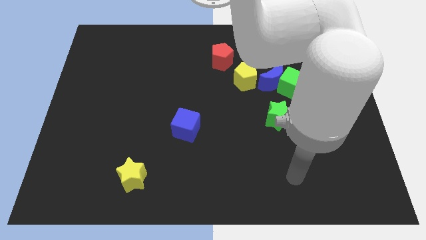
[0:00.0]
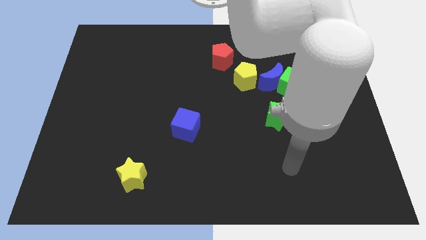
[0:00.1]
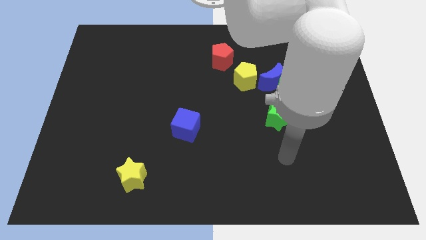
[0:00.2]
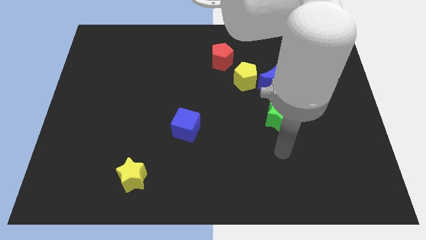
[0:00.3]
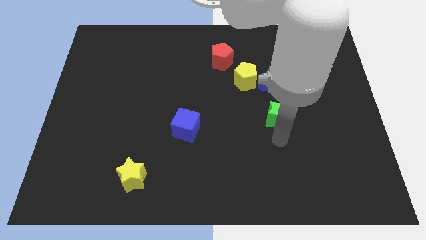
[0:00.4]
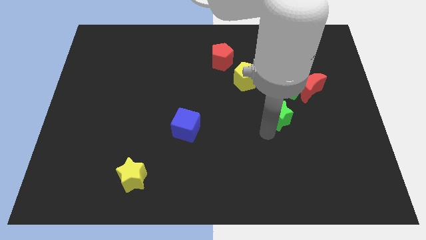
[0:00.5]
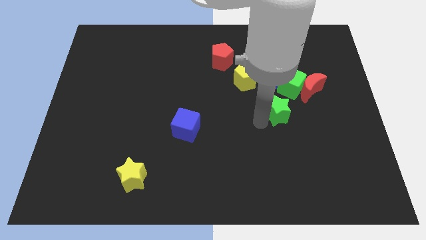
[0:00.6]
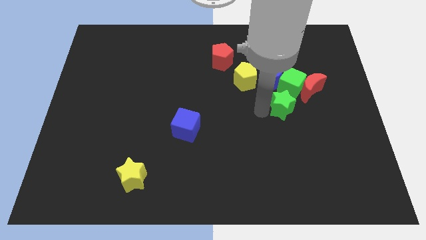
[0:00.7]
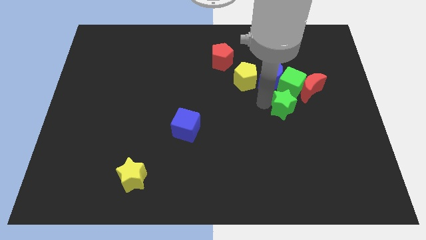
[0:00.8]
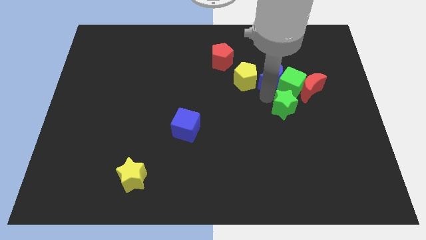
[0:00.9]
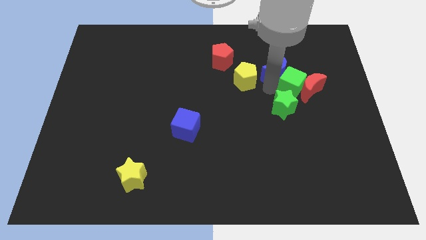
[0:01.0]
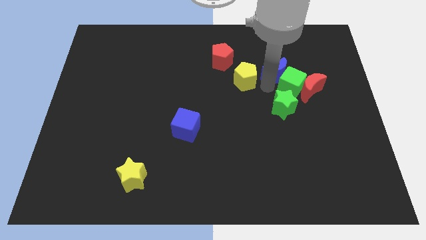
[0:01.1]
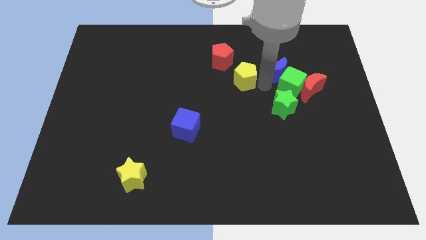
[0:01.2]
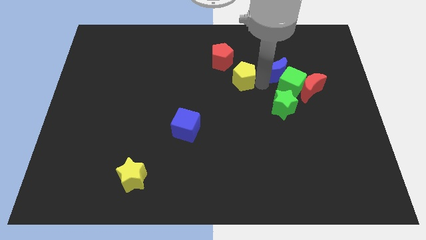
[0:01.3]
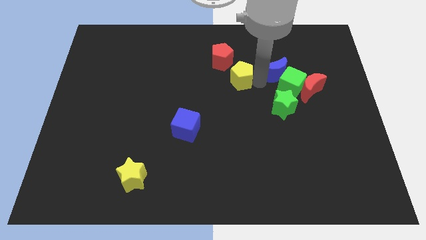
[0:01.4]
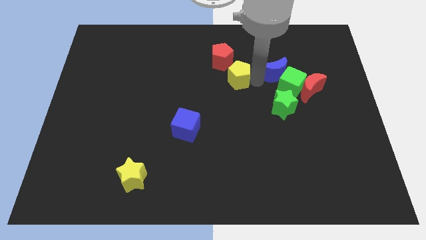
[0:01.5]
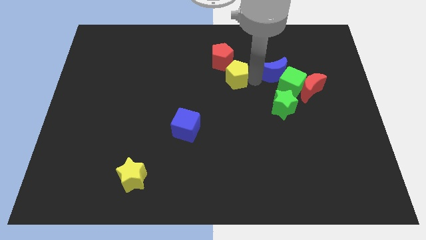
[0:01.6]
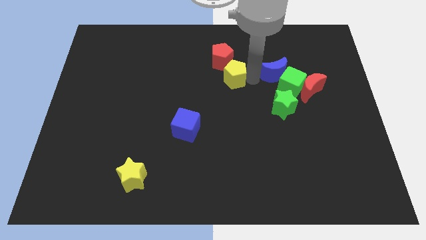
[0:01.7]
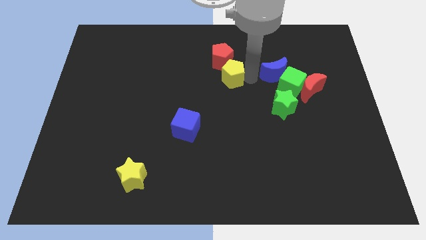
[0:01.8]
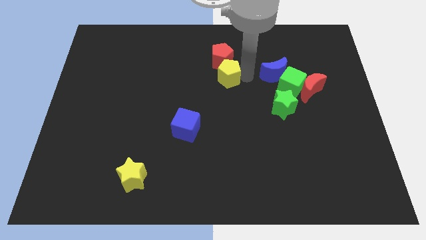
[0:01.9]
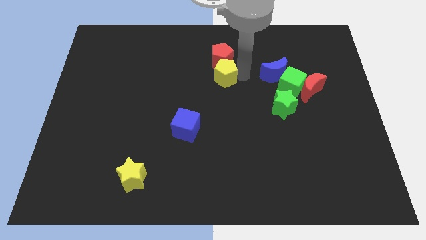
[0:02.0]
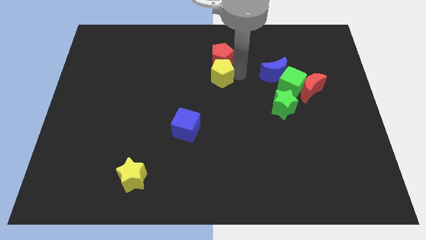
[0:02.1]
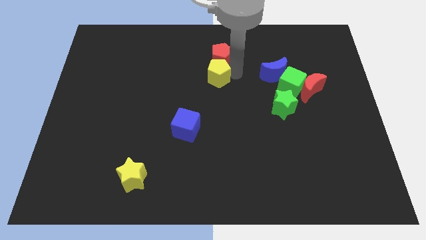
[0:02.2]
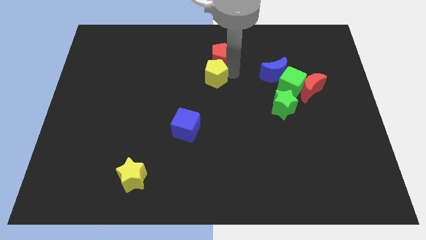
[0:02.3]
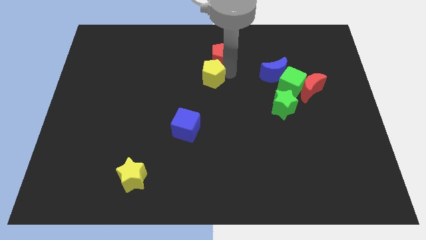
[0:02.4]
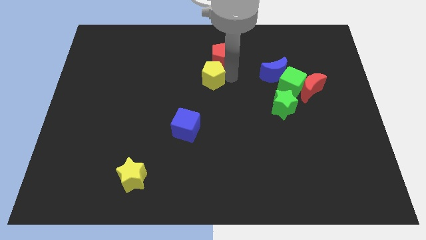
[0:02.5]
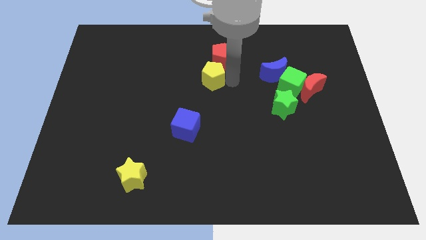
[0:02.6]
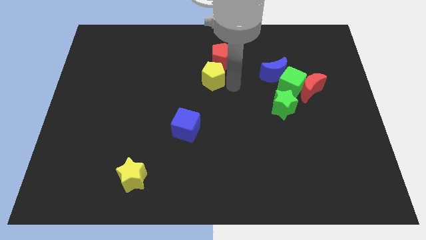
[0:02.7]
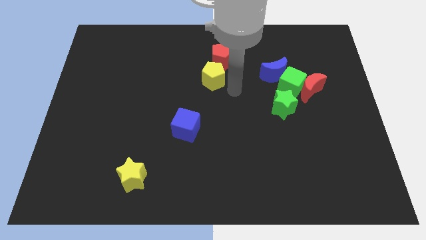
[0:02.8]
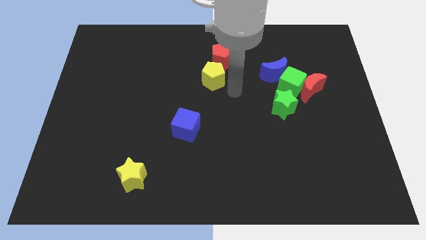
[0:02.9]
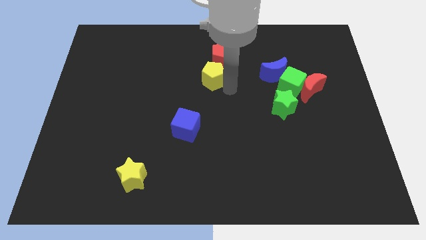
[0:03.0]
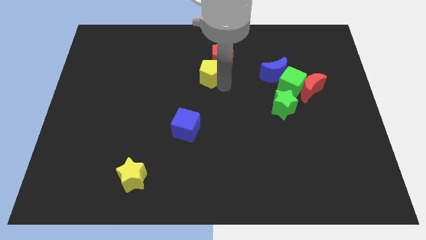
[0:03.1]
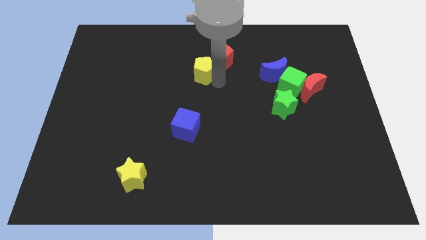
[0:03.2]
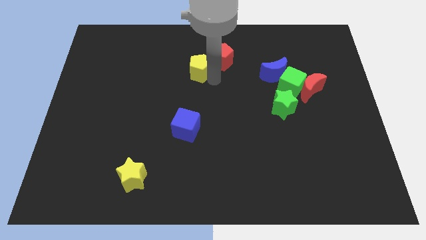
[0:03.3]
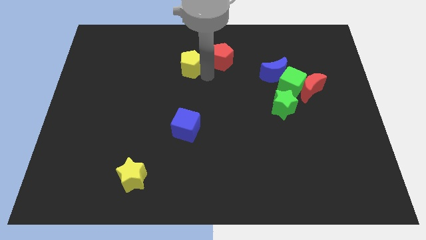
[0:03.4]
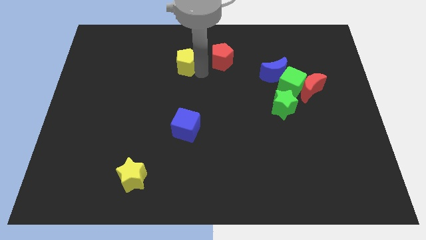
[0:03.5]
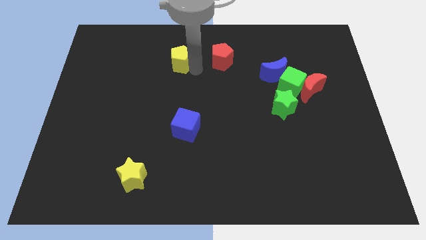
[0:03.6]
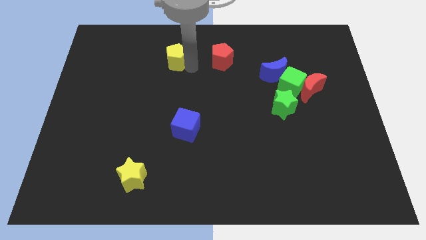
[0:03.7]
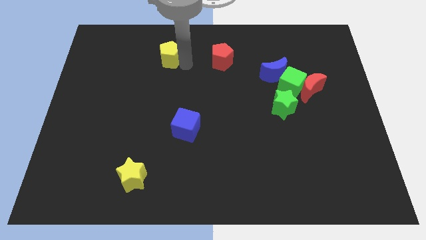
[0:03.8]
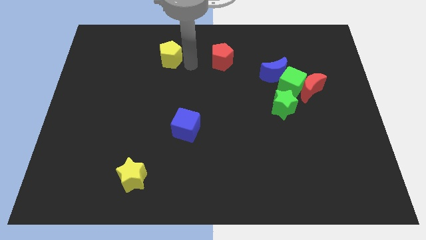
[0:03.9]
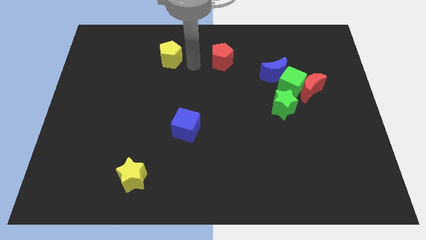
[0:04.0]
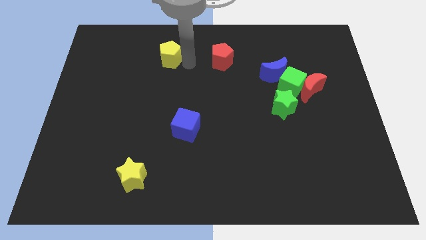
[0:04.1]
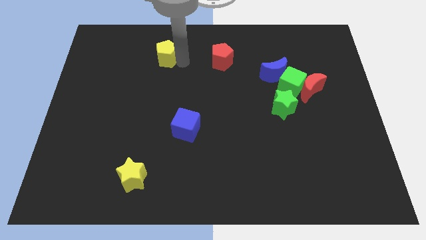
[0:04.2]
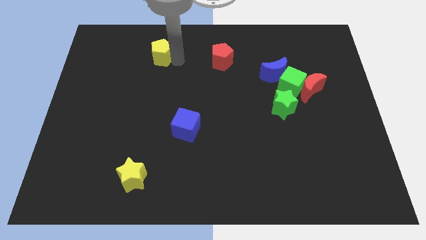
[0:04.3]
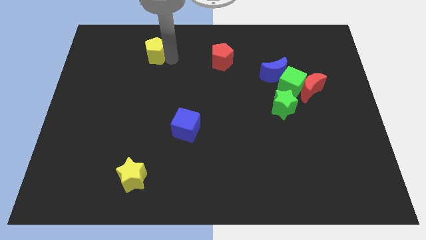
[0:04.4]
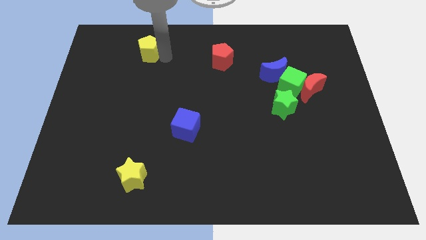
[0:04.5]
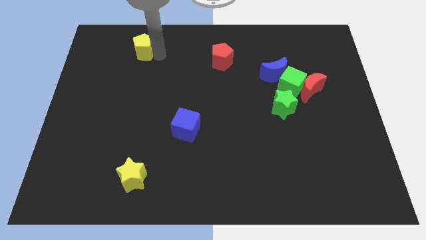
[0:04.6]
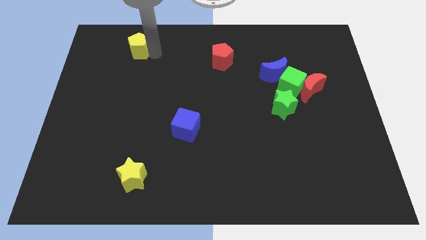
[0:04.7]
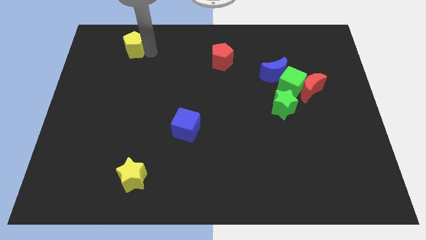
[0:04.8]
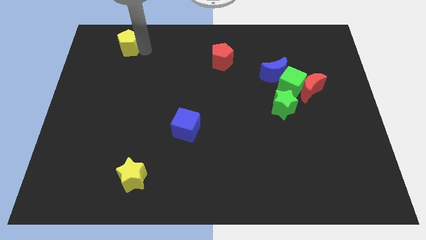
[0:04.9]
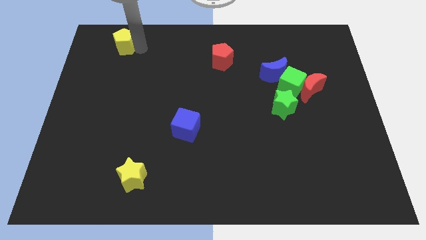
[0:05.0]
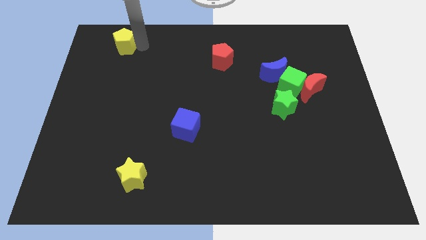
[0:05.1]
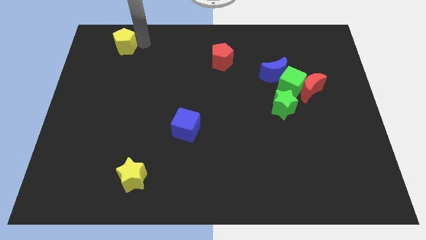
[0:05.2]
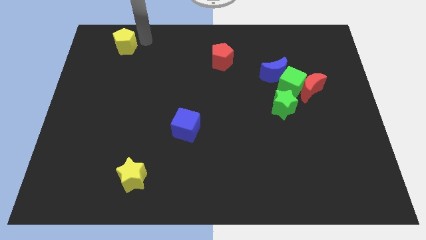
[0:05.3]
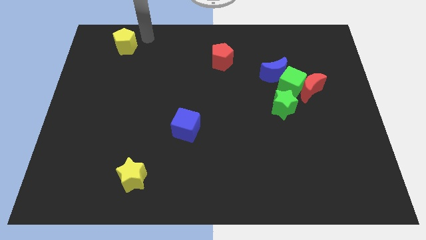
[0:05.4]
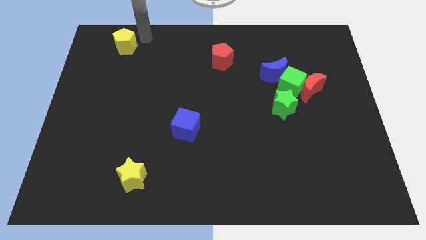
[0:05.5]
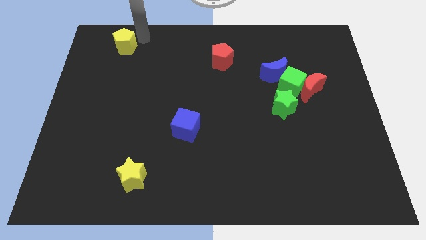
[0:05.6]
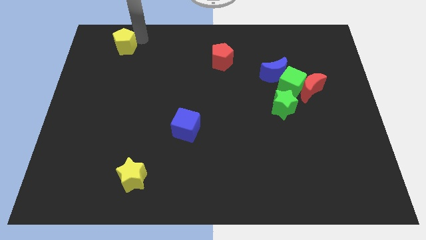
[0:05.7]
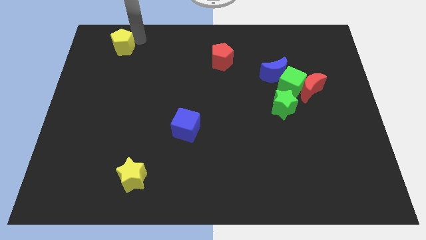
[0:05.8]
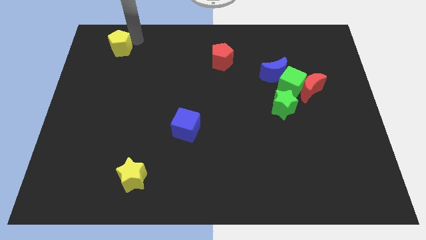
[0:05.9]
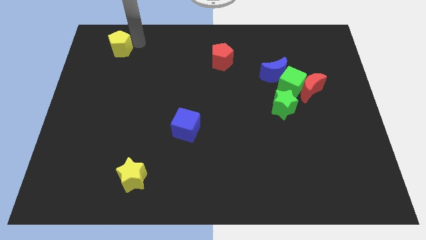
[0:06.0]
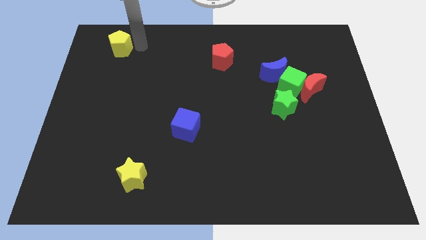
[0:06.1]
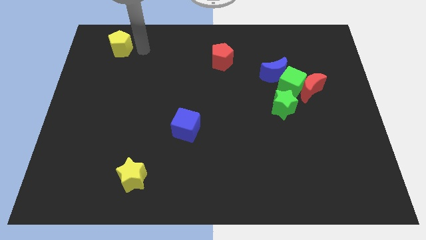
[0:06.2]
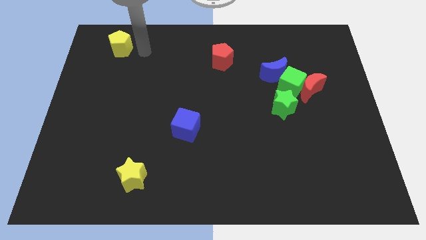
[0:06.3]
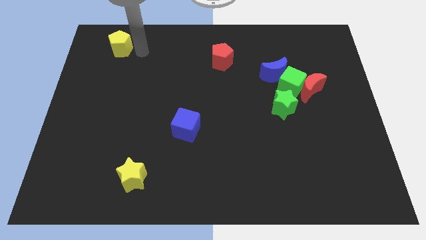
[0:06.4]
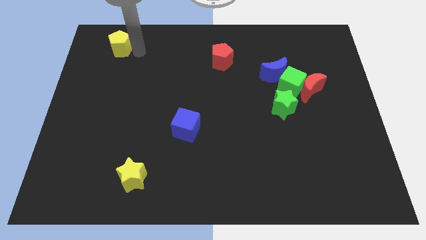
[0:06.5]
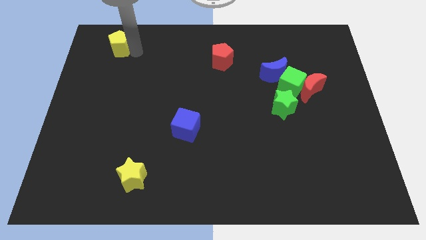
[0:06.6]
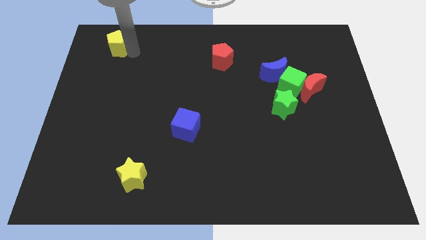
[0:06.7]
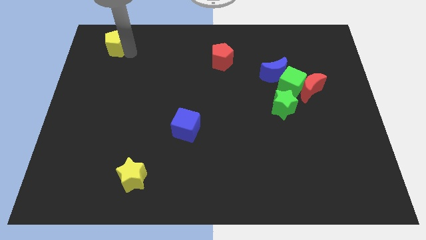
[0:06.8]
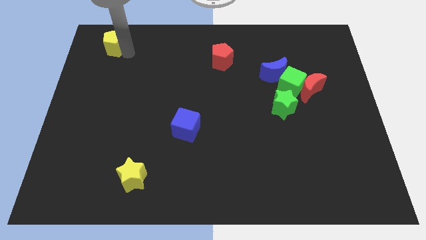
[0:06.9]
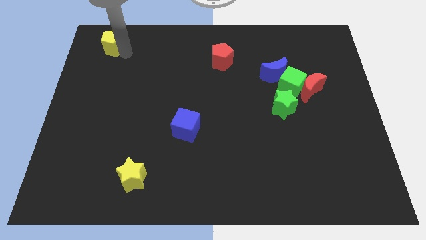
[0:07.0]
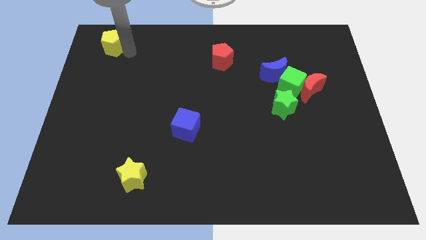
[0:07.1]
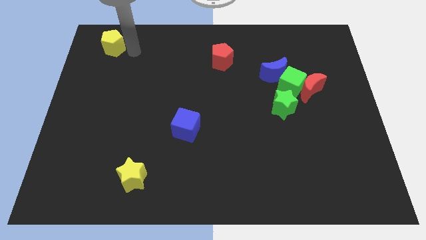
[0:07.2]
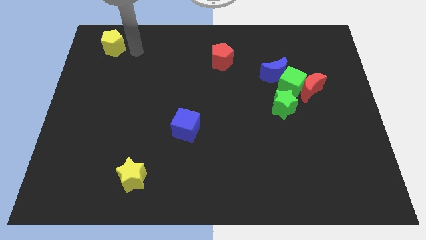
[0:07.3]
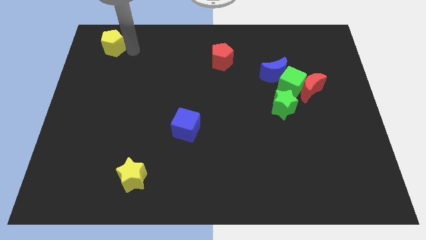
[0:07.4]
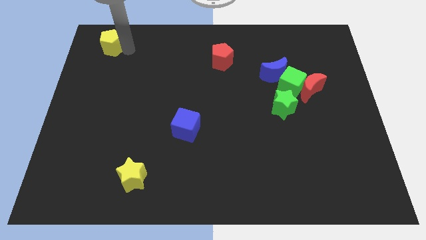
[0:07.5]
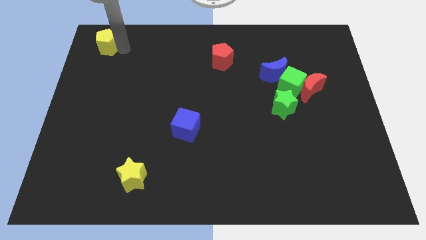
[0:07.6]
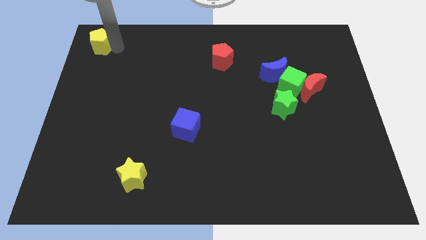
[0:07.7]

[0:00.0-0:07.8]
push the yellow pentagon to the top left of the board
